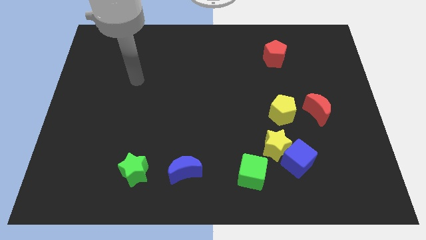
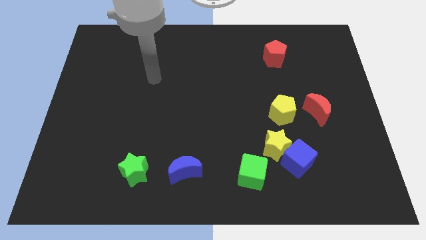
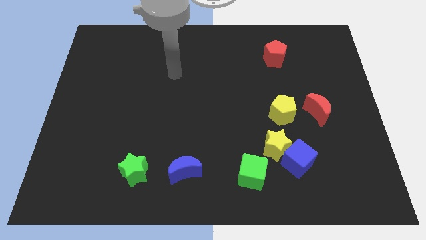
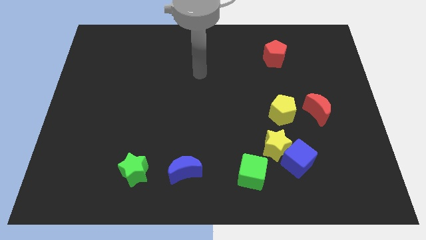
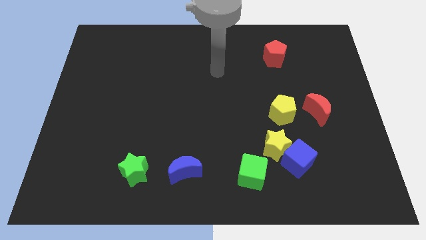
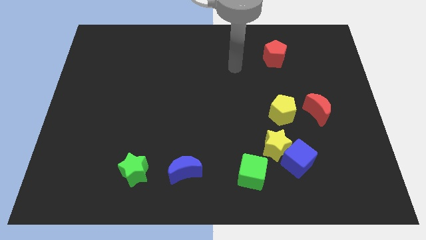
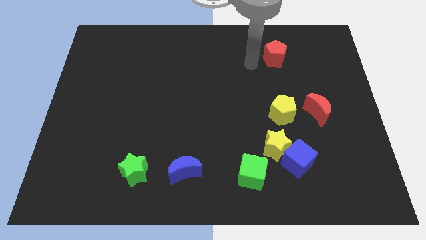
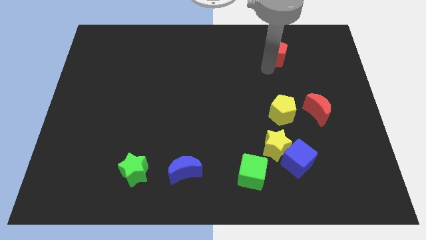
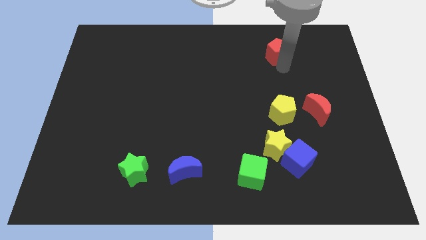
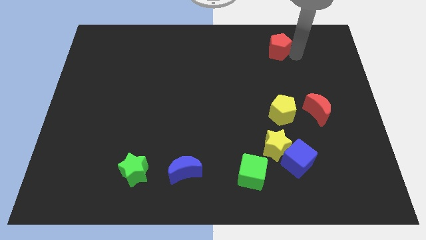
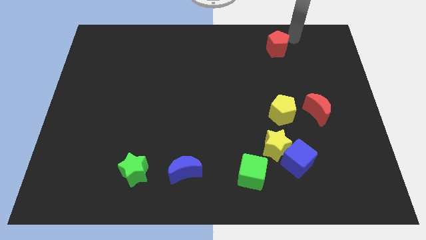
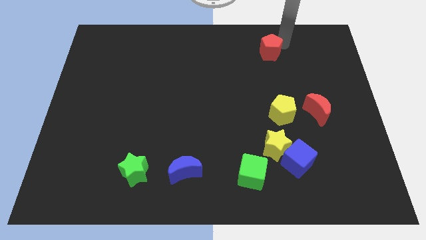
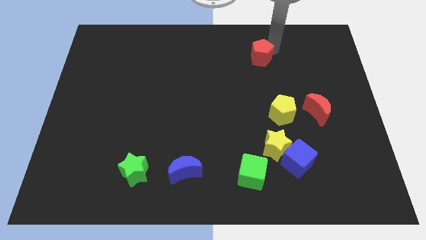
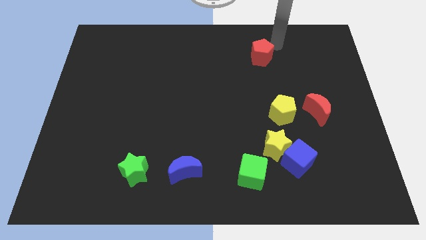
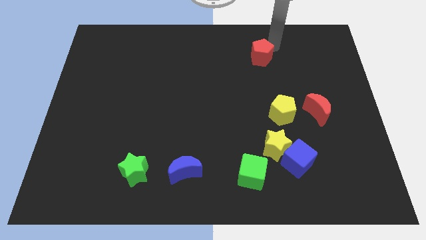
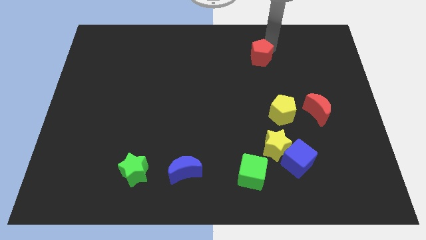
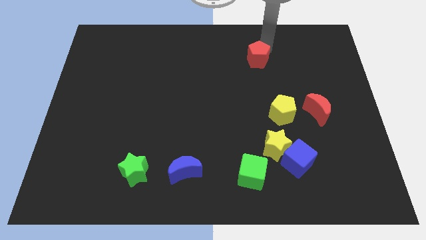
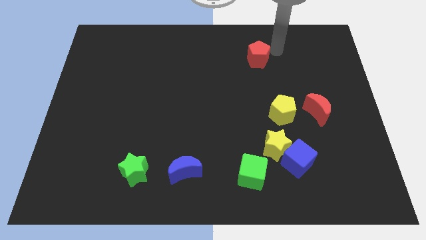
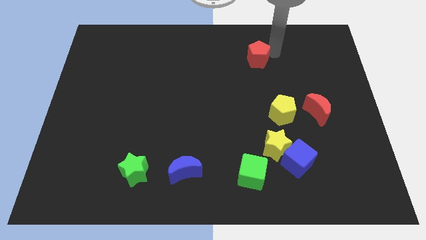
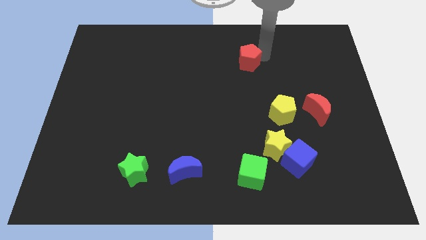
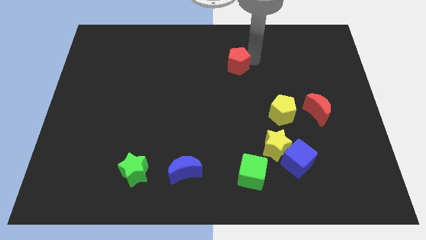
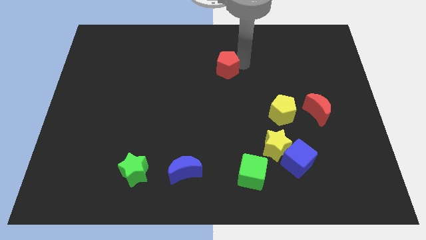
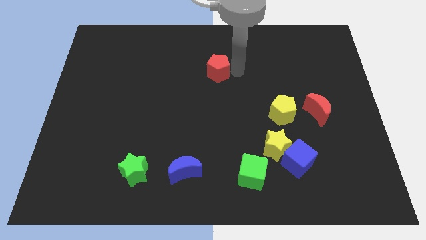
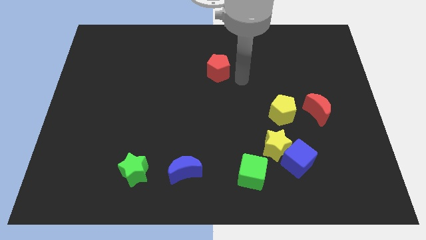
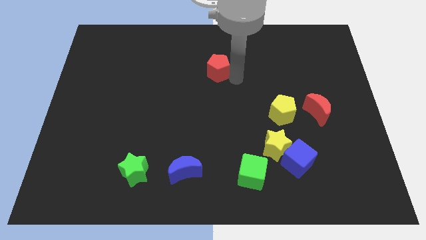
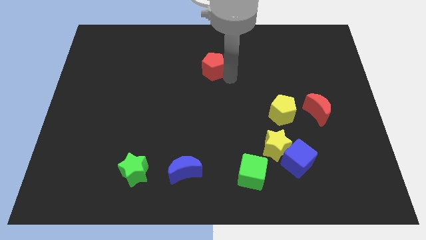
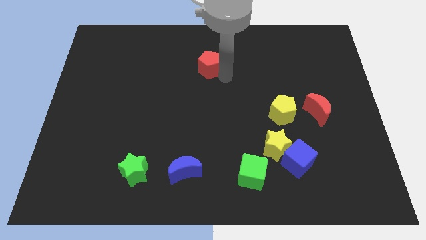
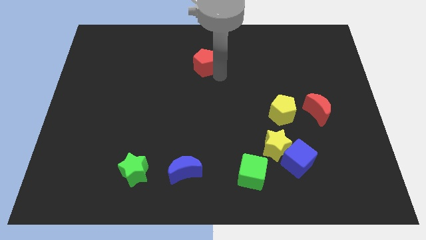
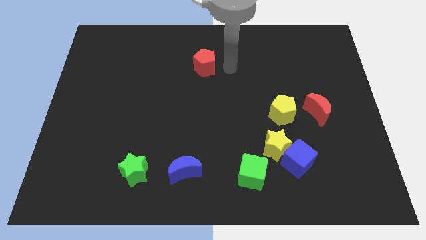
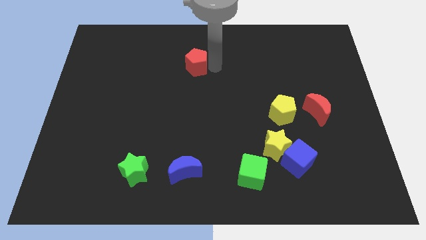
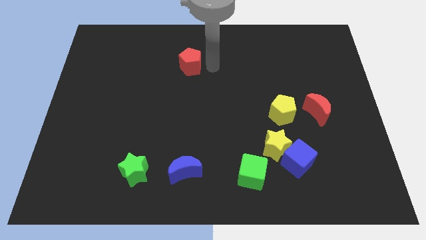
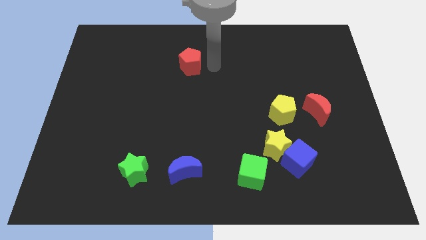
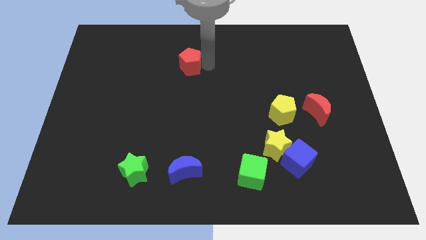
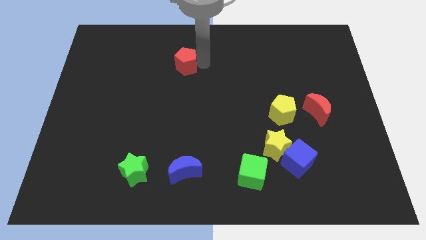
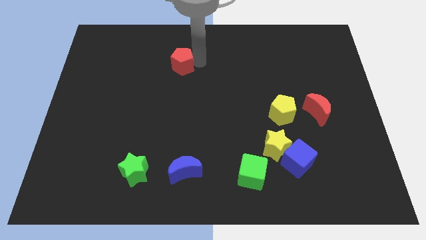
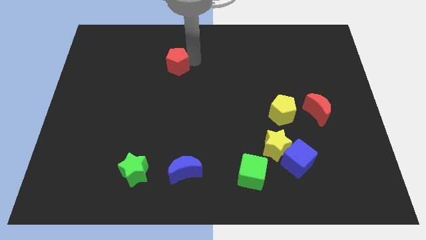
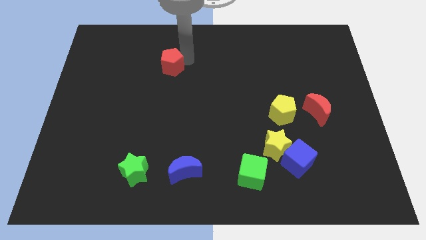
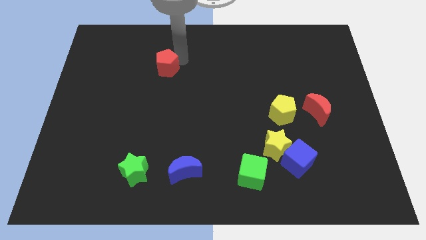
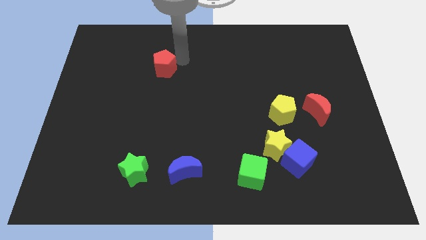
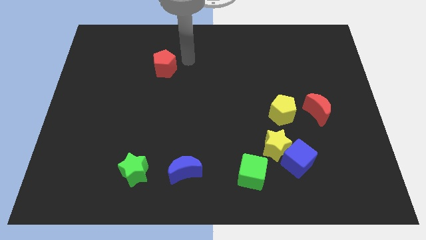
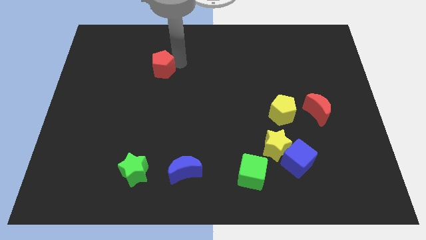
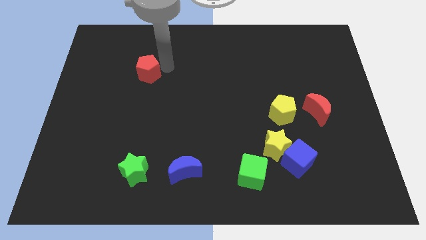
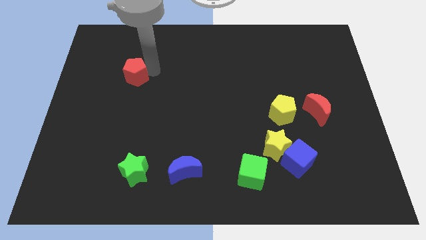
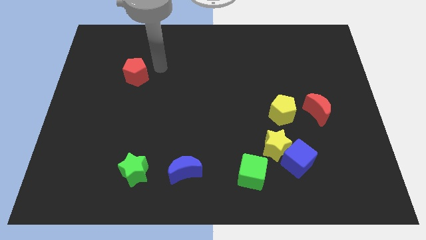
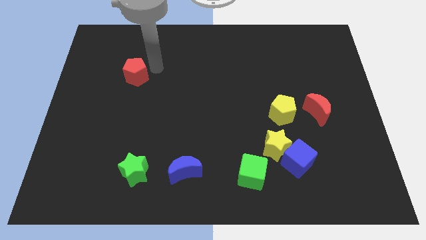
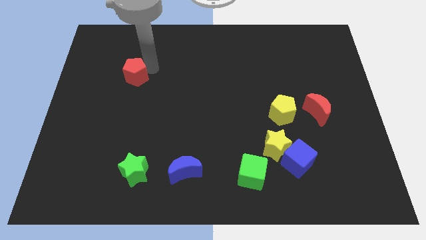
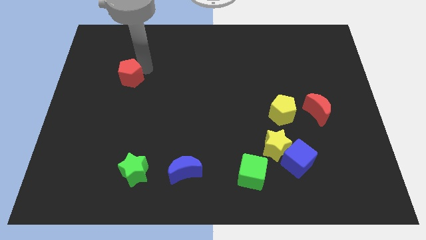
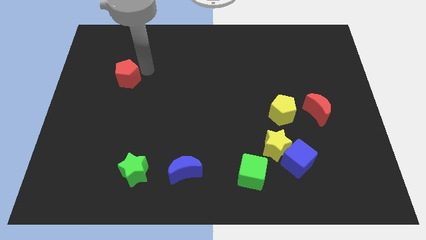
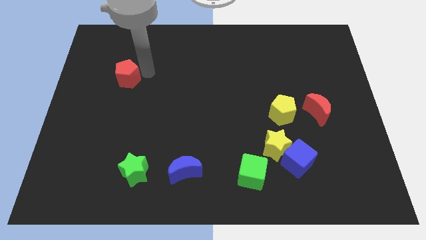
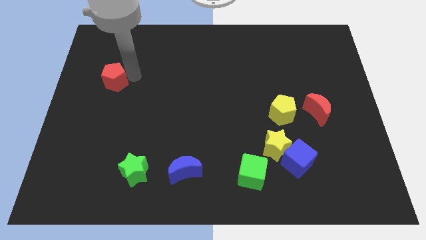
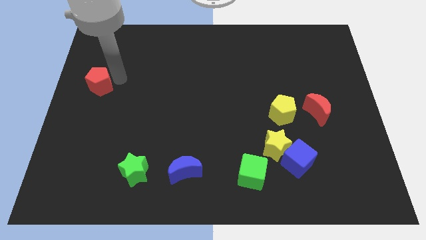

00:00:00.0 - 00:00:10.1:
slide the red pentagon to the left side

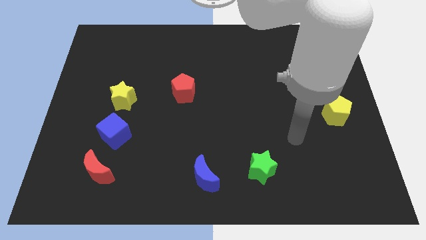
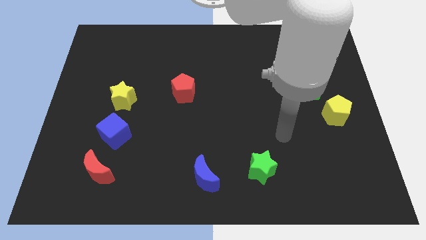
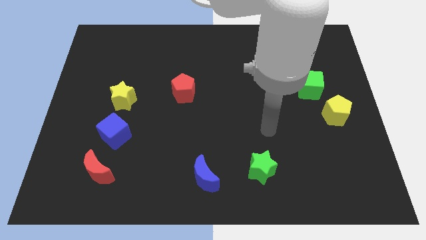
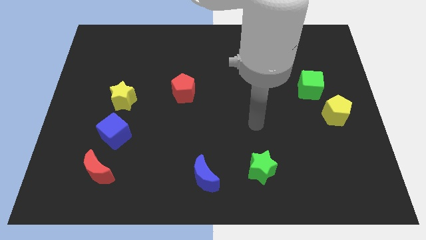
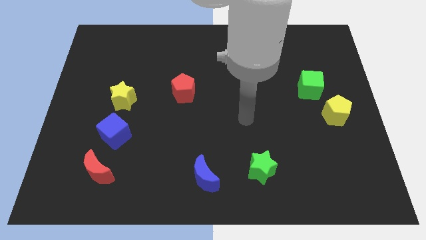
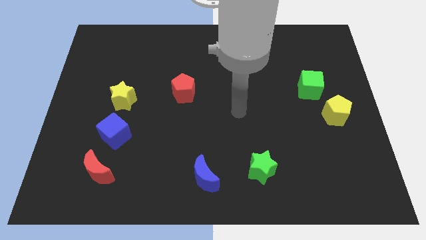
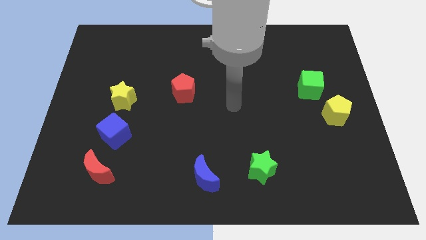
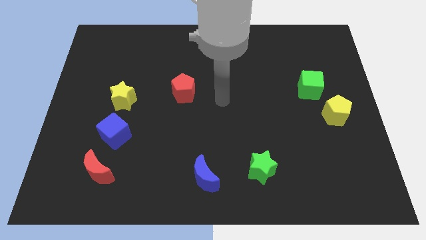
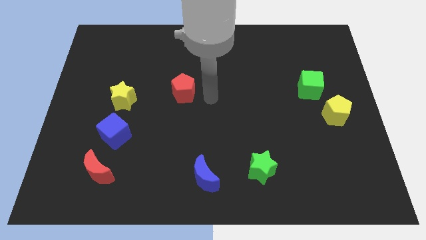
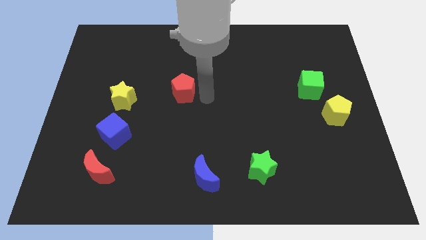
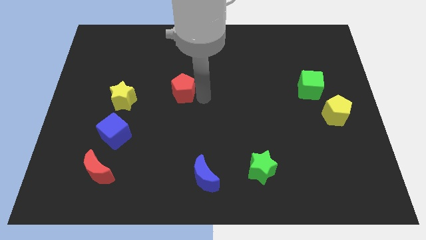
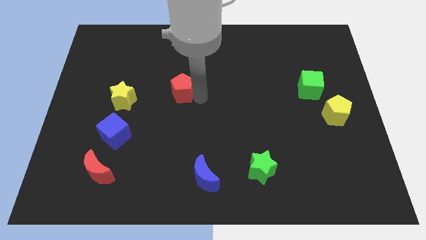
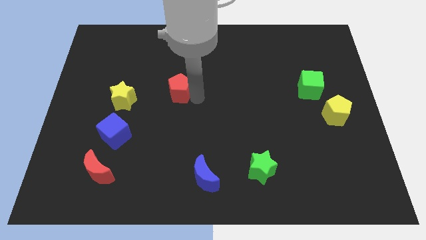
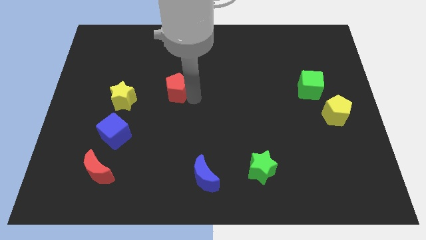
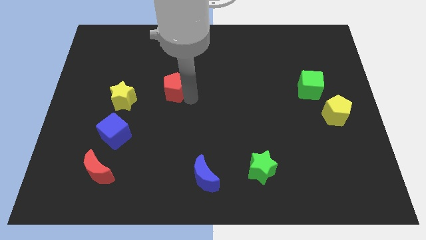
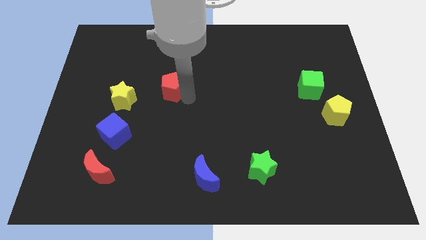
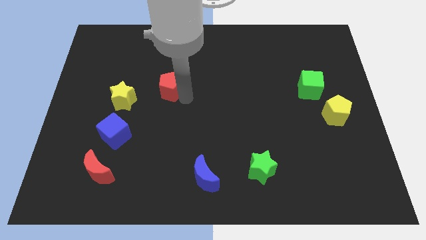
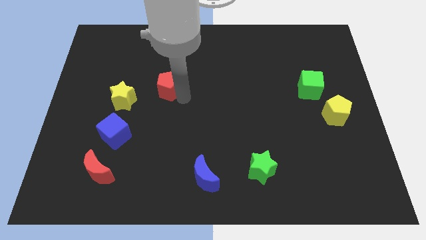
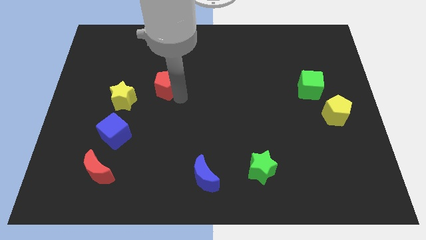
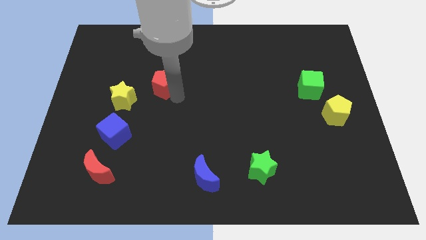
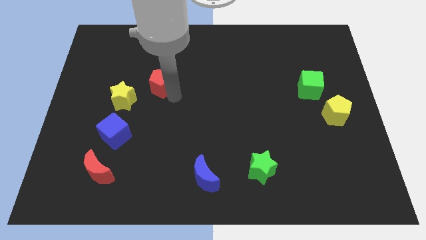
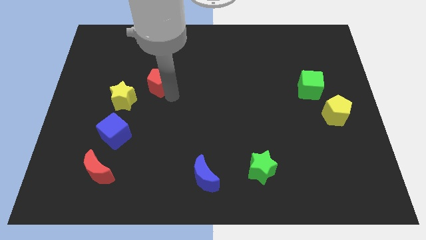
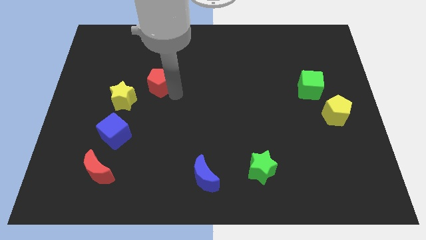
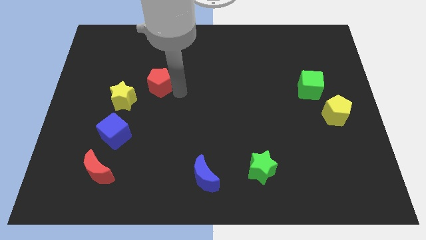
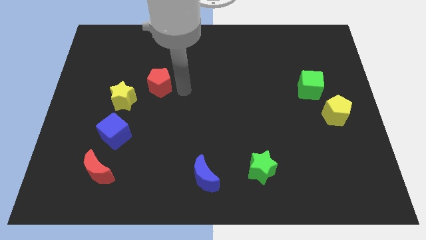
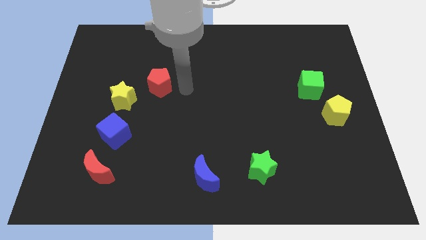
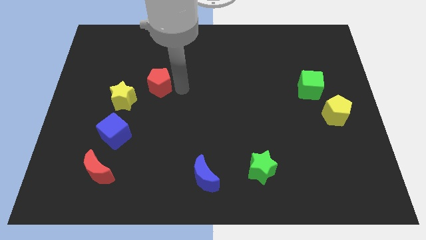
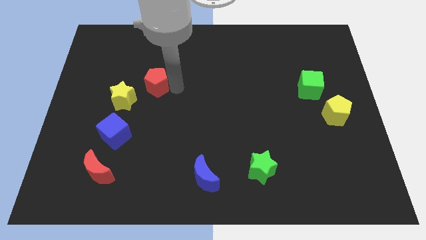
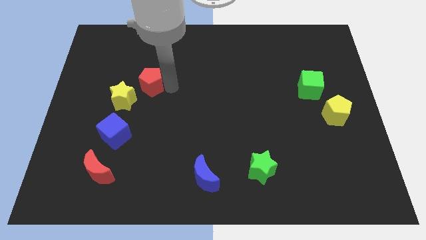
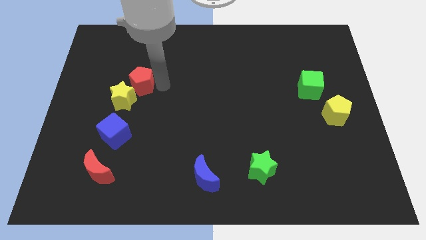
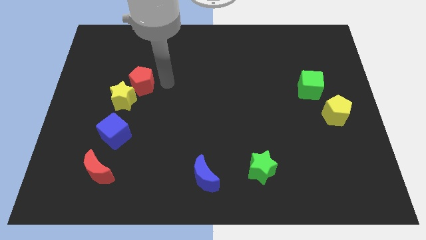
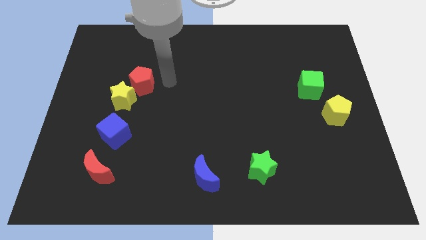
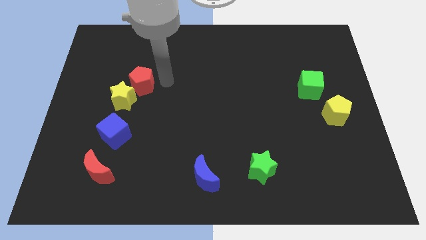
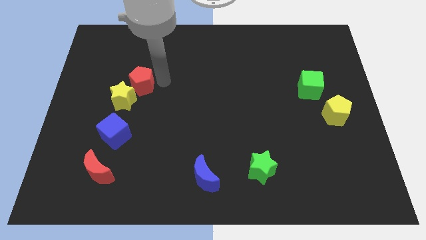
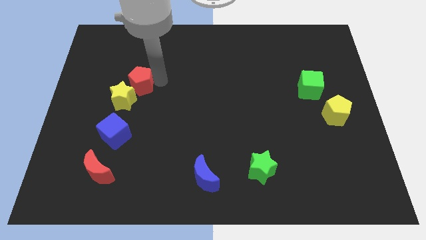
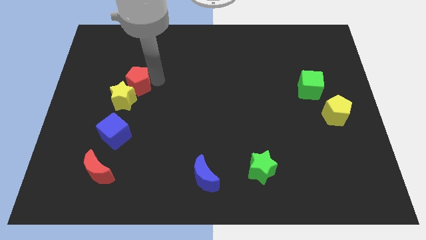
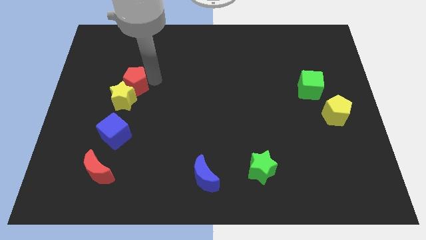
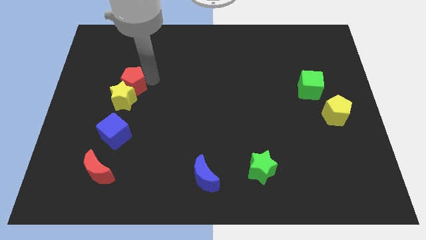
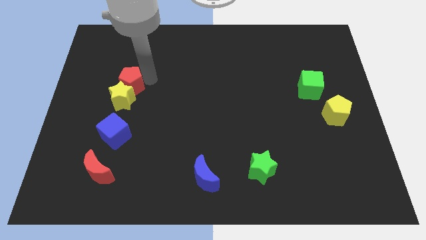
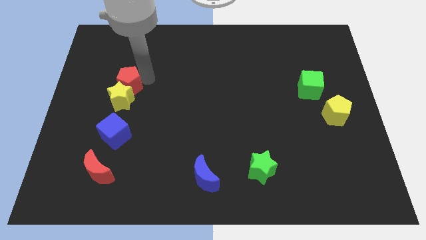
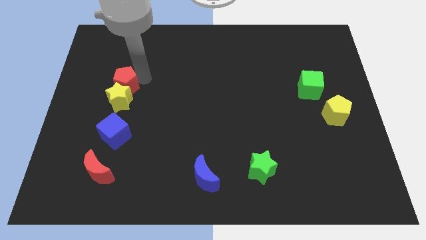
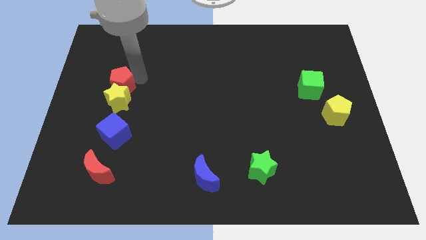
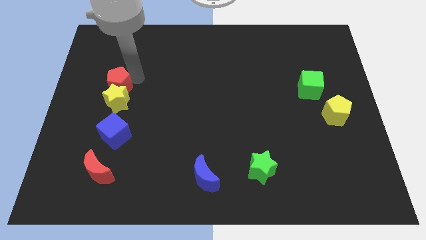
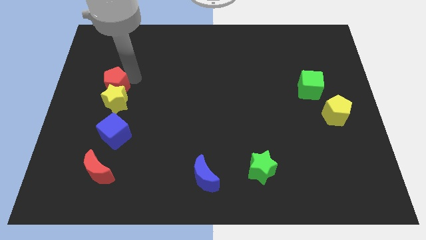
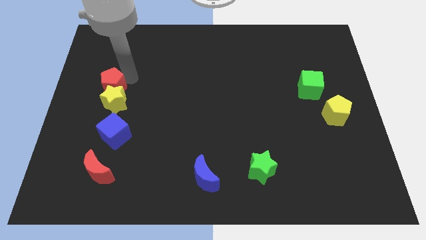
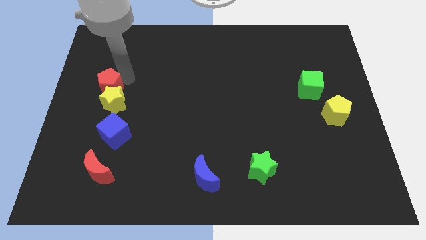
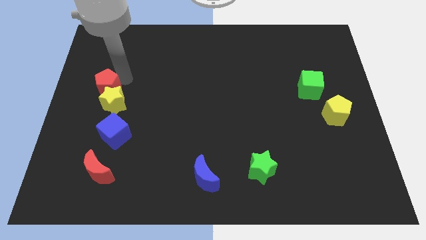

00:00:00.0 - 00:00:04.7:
move the red pentagon to the left side
